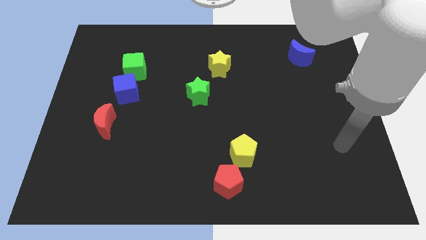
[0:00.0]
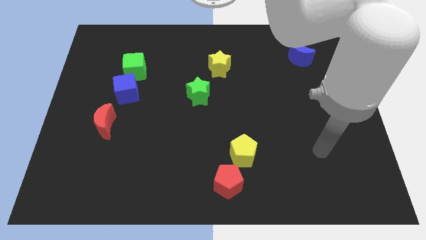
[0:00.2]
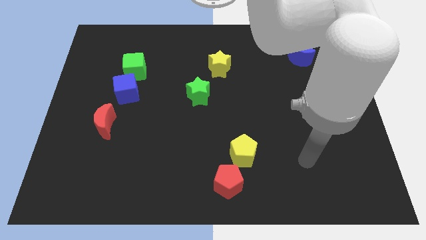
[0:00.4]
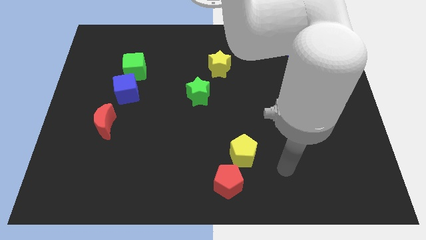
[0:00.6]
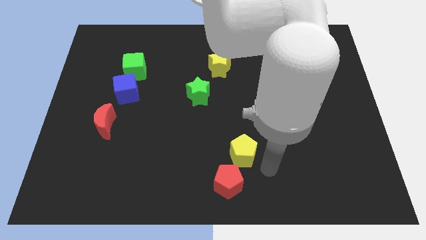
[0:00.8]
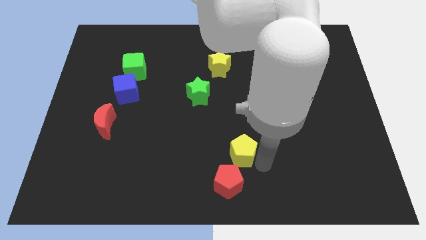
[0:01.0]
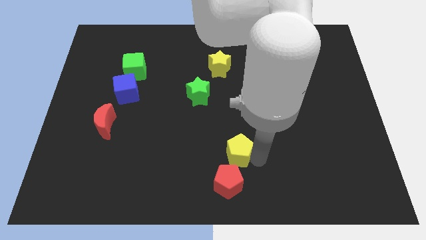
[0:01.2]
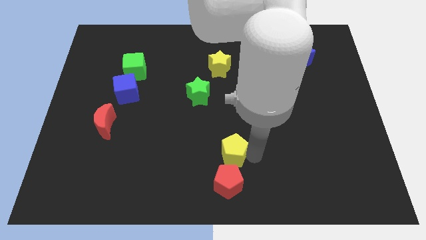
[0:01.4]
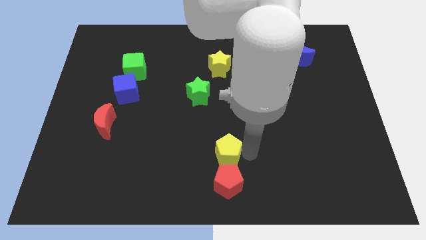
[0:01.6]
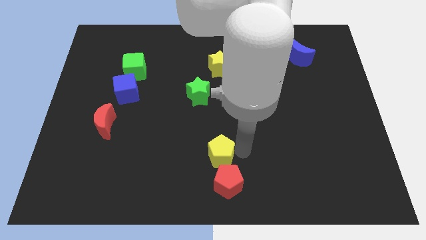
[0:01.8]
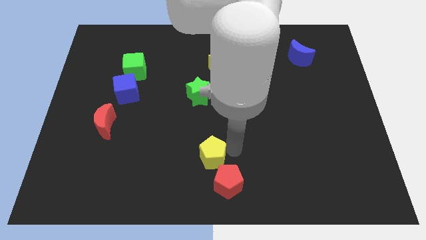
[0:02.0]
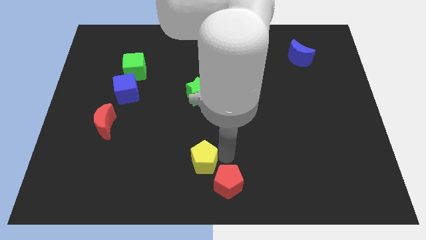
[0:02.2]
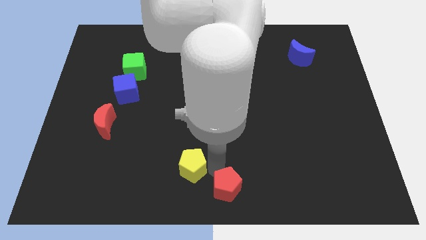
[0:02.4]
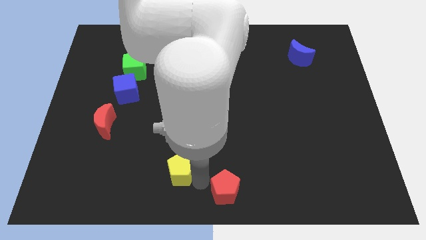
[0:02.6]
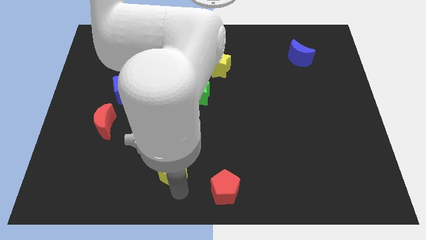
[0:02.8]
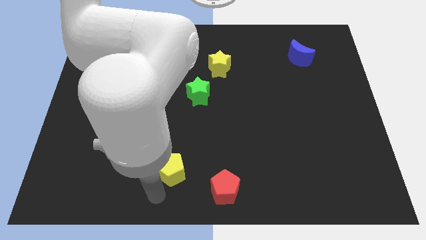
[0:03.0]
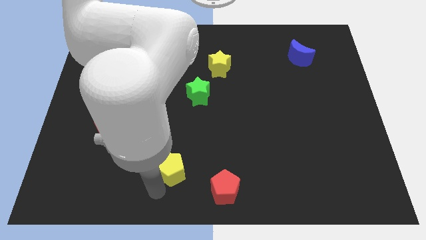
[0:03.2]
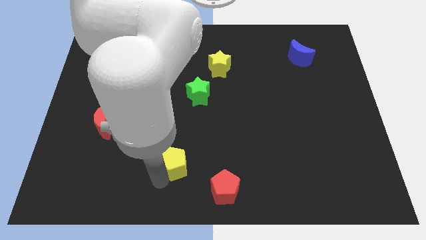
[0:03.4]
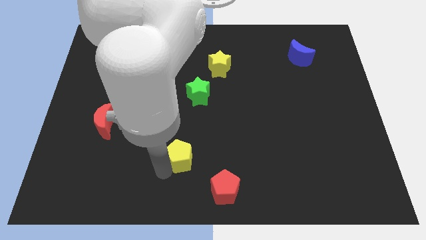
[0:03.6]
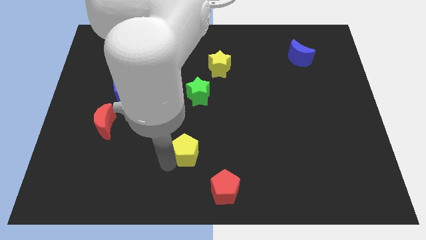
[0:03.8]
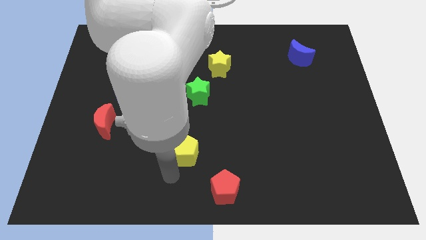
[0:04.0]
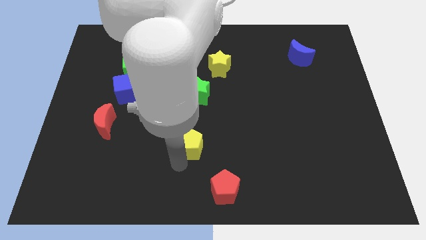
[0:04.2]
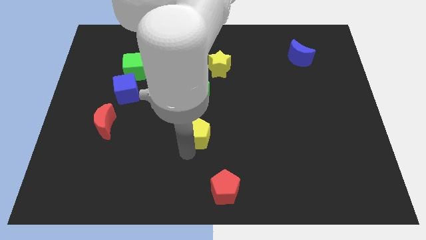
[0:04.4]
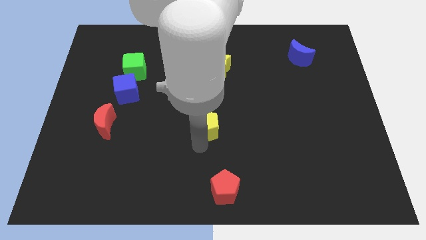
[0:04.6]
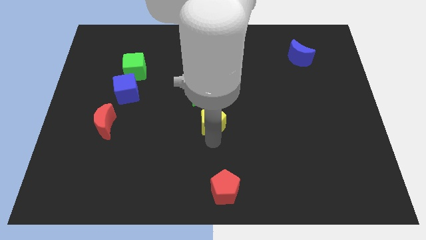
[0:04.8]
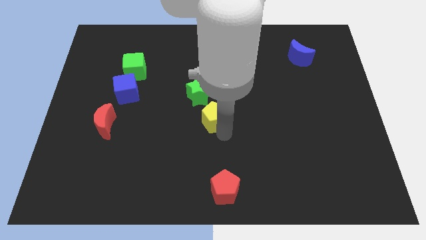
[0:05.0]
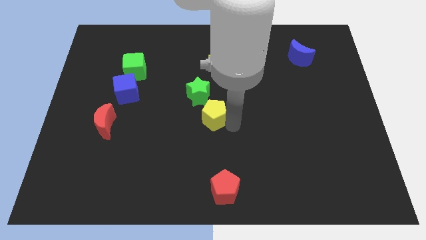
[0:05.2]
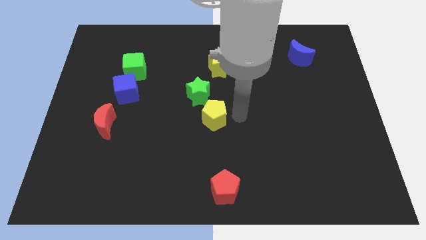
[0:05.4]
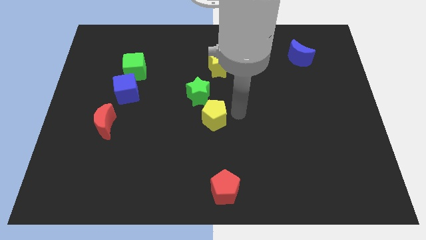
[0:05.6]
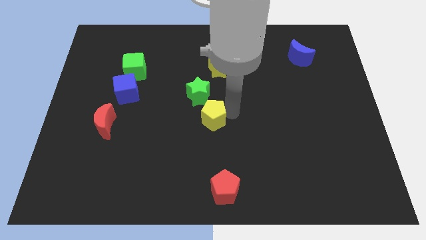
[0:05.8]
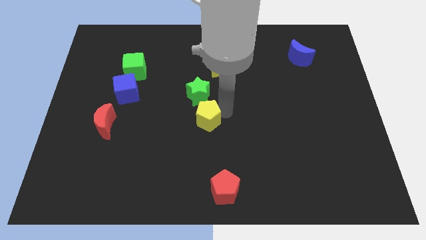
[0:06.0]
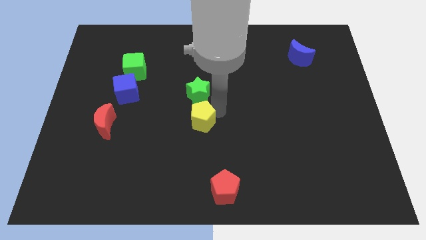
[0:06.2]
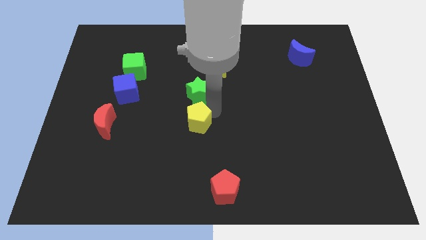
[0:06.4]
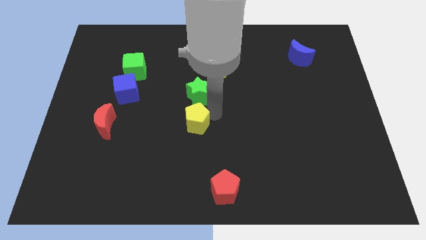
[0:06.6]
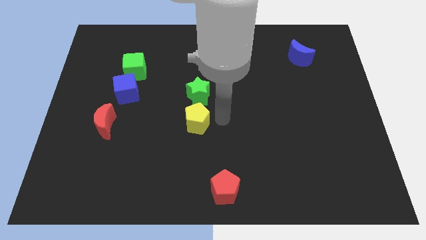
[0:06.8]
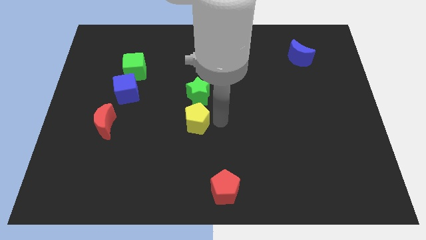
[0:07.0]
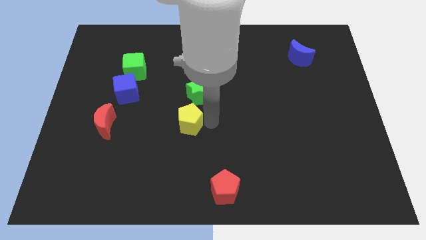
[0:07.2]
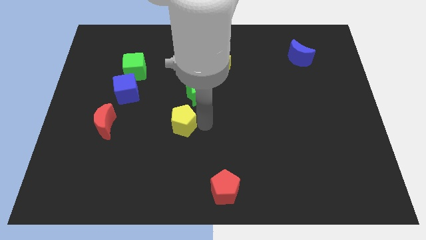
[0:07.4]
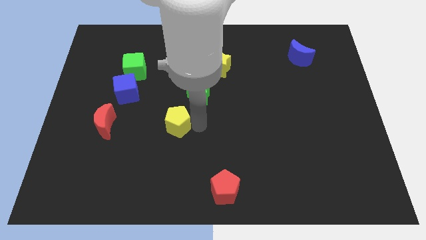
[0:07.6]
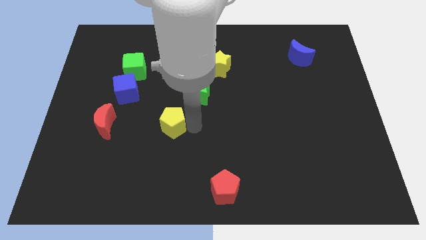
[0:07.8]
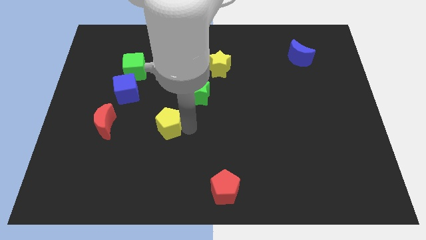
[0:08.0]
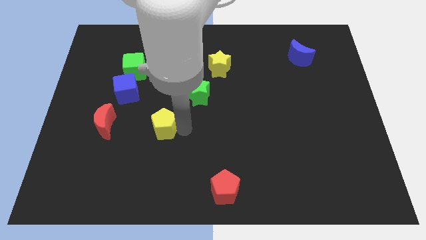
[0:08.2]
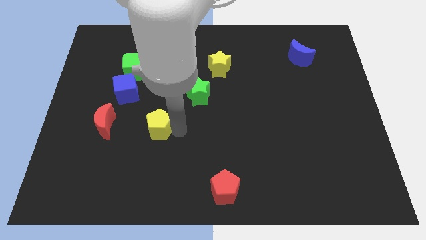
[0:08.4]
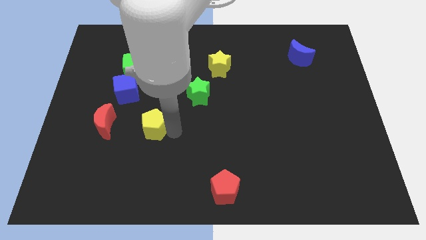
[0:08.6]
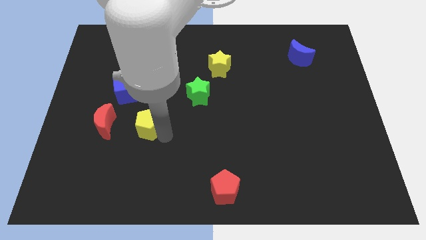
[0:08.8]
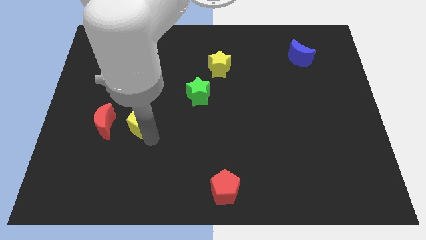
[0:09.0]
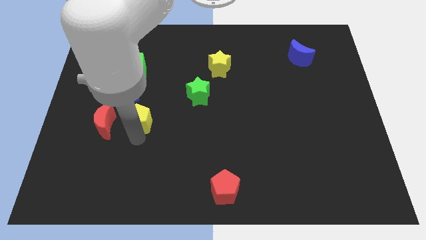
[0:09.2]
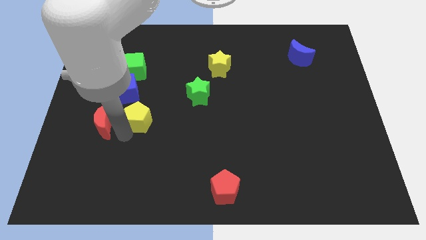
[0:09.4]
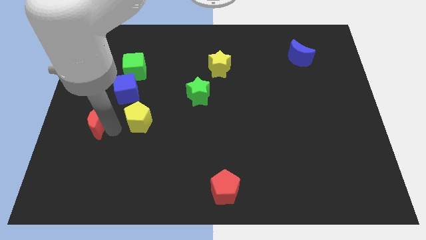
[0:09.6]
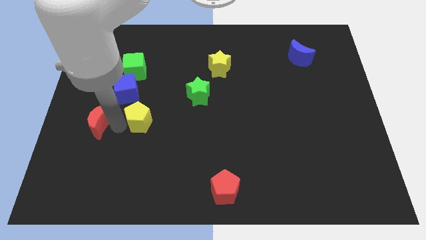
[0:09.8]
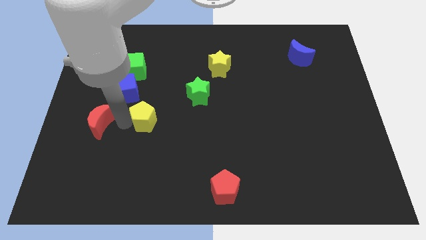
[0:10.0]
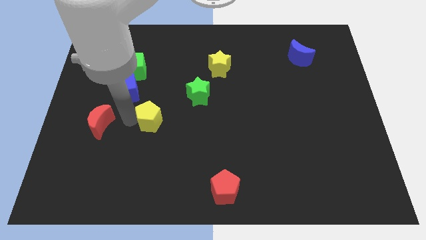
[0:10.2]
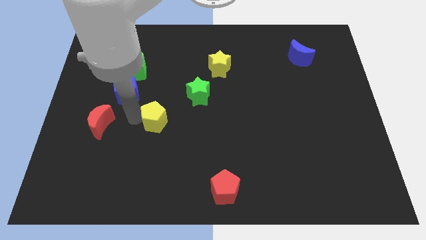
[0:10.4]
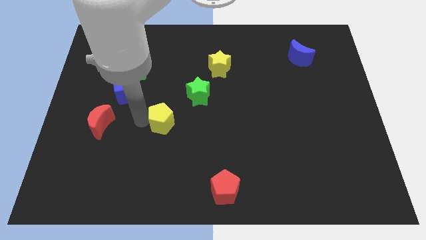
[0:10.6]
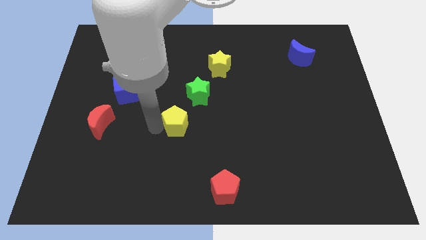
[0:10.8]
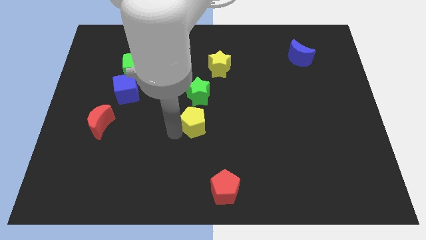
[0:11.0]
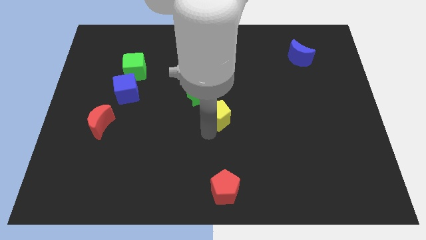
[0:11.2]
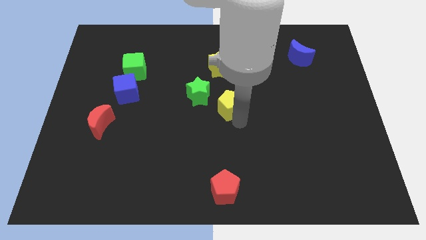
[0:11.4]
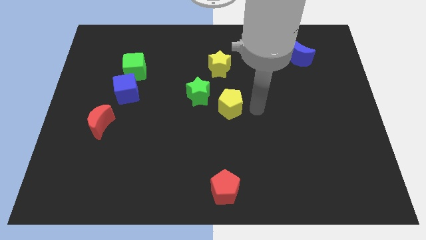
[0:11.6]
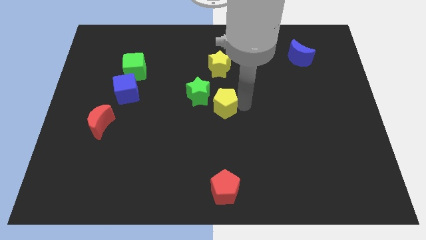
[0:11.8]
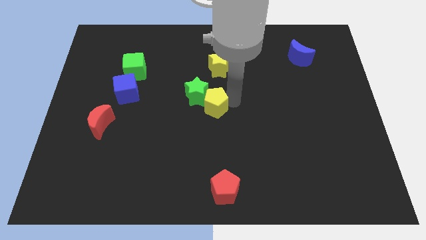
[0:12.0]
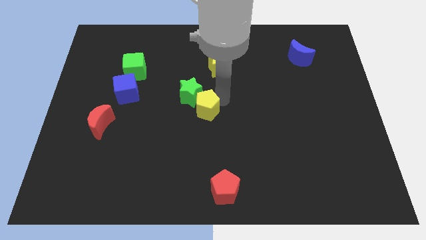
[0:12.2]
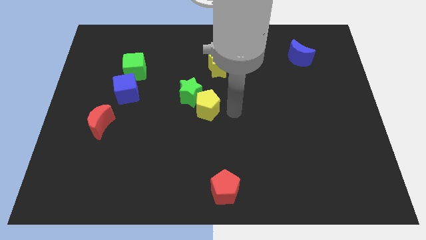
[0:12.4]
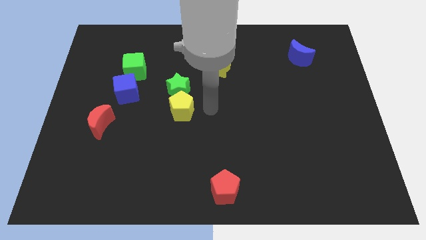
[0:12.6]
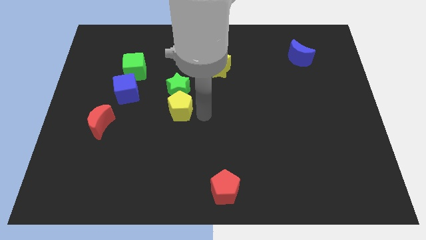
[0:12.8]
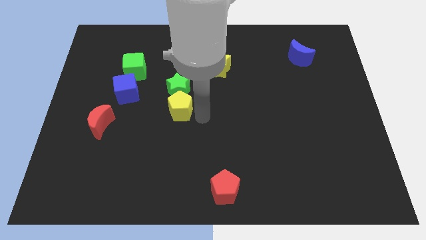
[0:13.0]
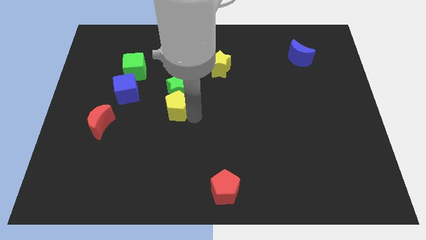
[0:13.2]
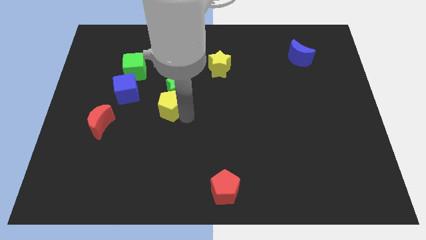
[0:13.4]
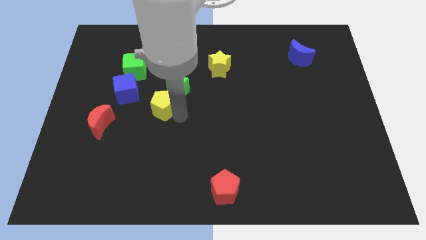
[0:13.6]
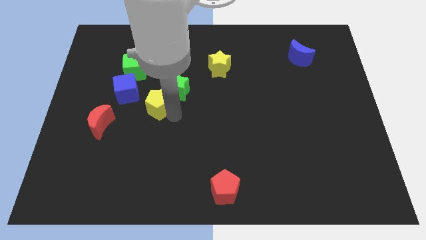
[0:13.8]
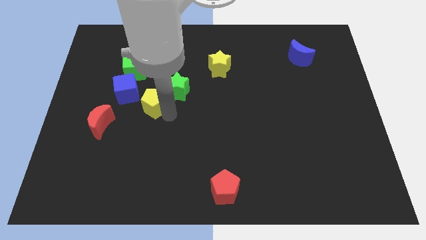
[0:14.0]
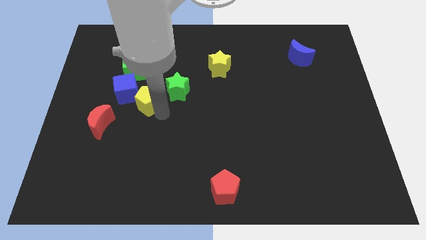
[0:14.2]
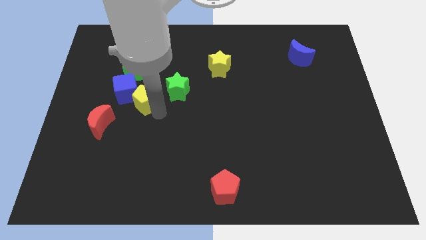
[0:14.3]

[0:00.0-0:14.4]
push the yellow pentagon close to the blue cube

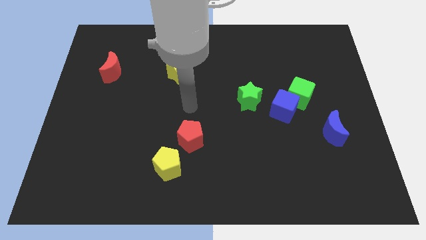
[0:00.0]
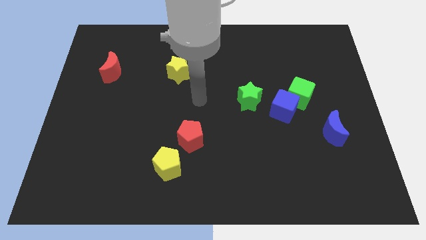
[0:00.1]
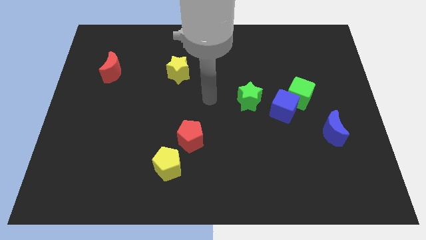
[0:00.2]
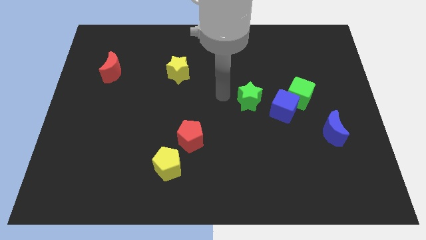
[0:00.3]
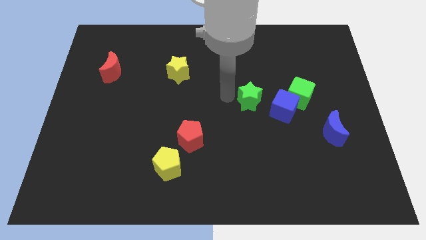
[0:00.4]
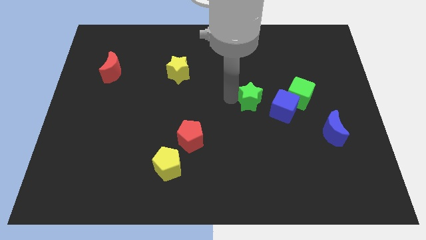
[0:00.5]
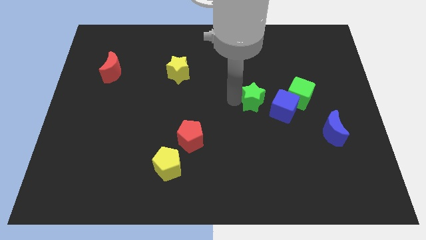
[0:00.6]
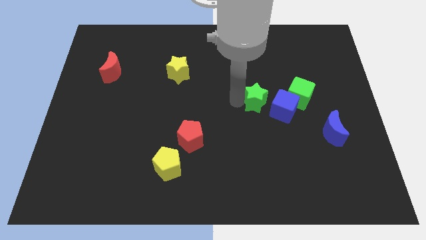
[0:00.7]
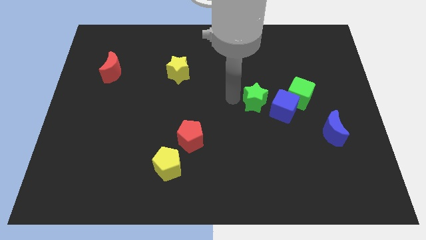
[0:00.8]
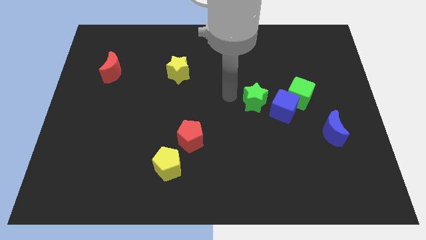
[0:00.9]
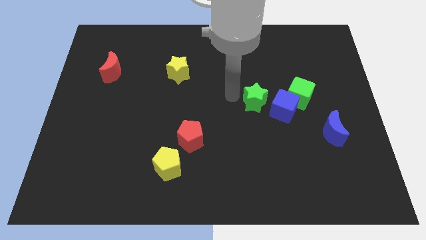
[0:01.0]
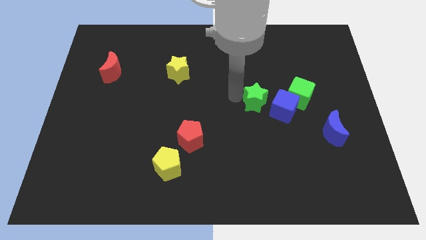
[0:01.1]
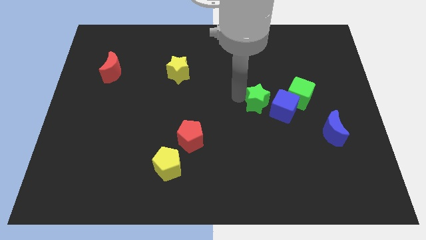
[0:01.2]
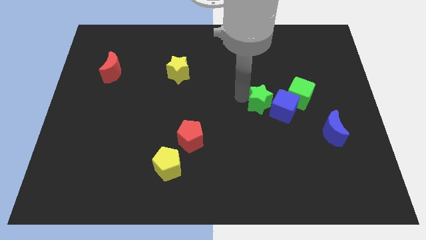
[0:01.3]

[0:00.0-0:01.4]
push the green star next to the blue cube
